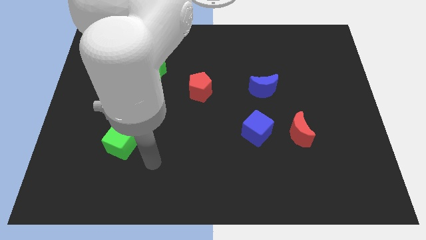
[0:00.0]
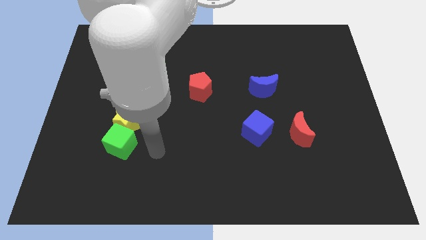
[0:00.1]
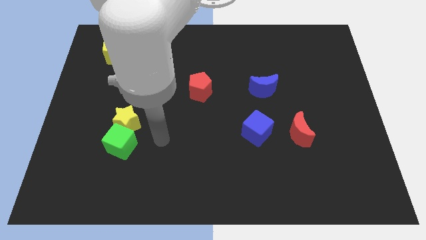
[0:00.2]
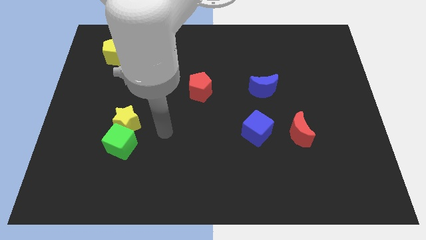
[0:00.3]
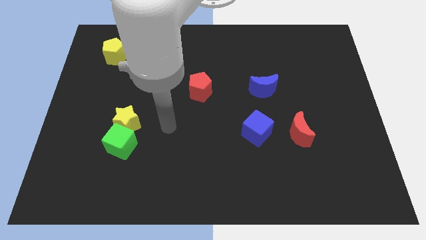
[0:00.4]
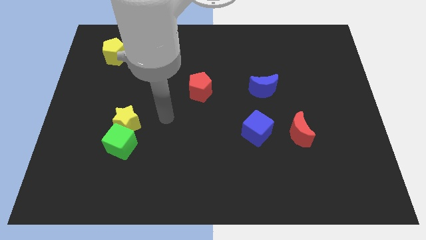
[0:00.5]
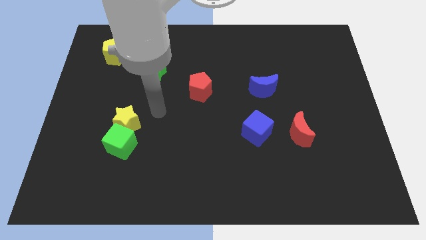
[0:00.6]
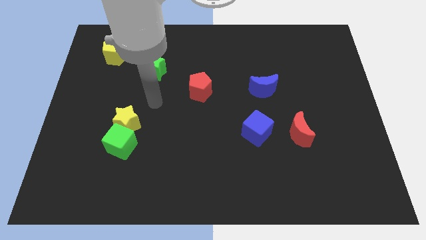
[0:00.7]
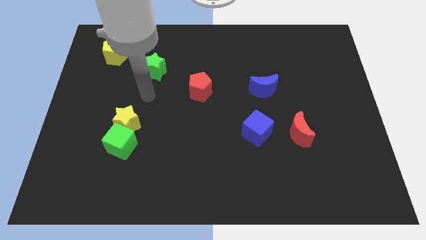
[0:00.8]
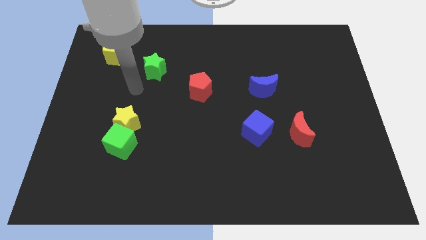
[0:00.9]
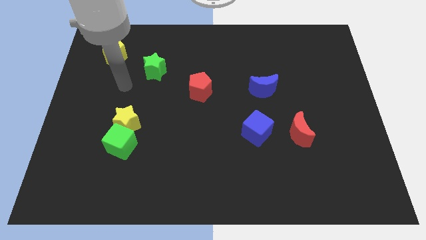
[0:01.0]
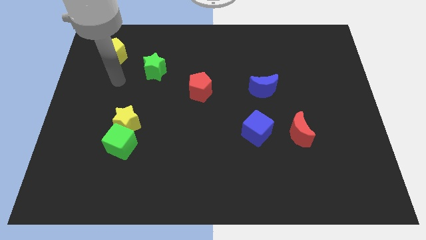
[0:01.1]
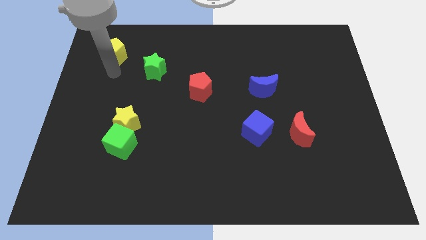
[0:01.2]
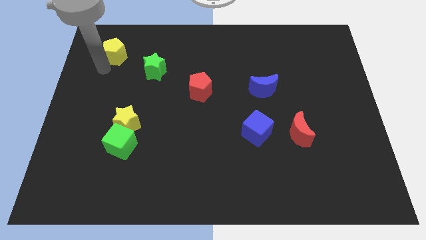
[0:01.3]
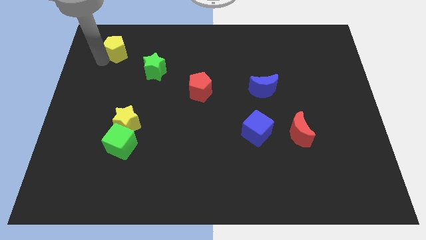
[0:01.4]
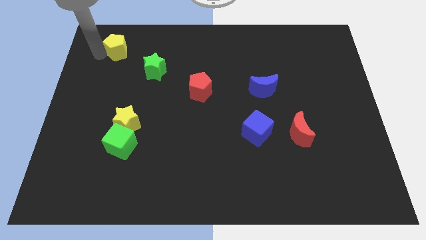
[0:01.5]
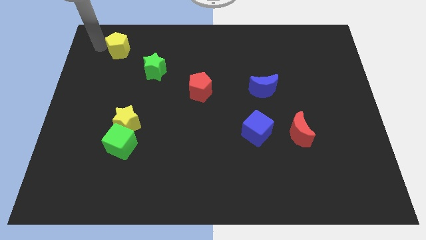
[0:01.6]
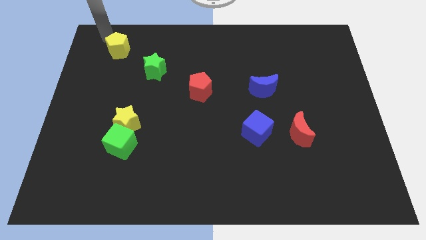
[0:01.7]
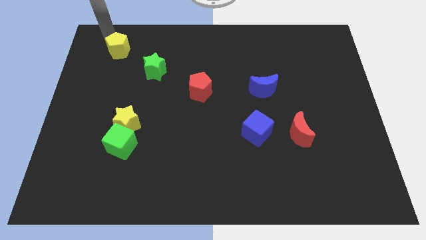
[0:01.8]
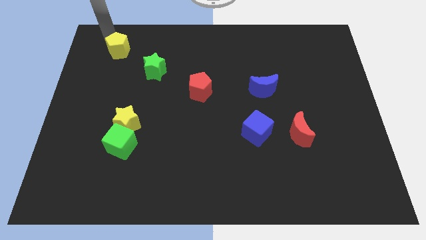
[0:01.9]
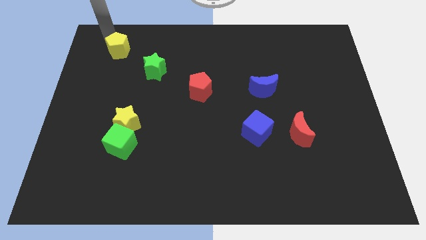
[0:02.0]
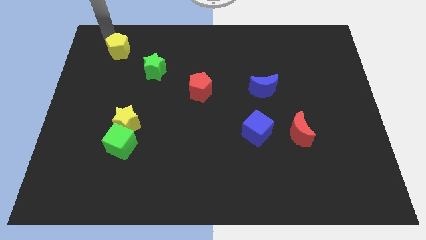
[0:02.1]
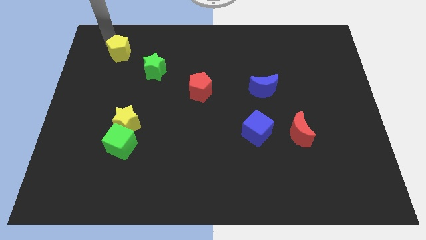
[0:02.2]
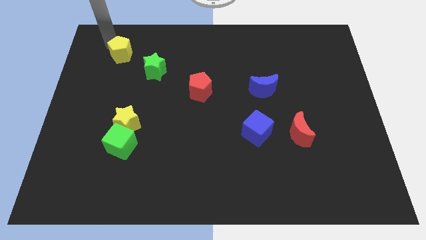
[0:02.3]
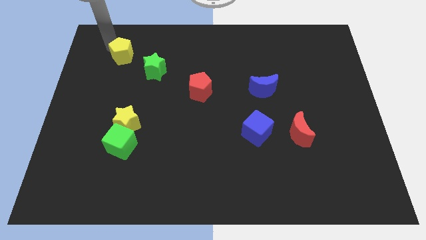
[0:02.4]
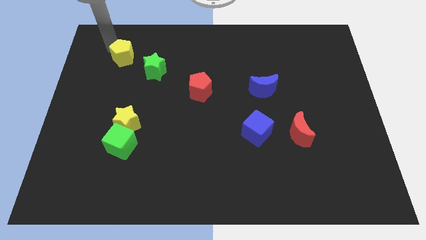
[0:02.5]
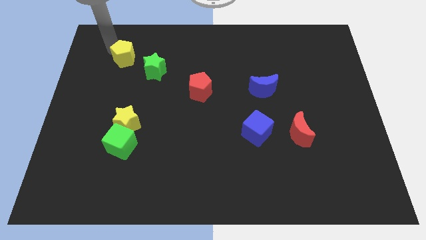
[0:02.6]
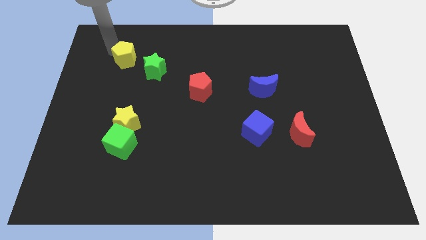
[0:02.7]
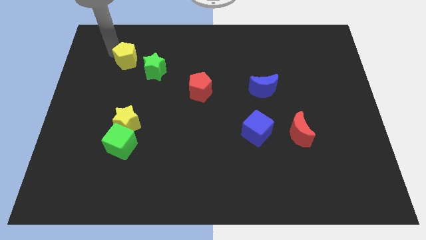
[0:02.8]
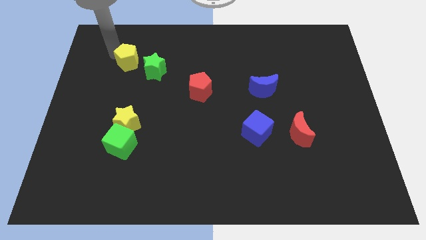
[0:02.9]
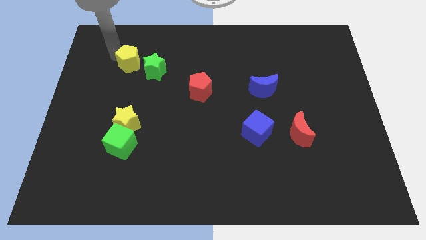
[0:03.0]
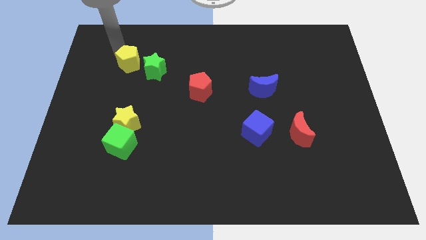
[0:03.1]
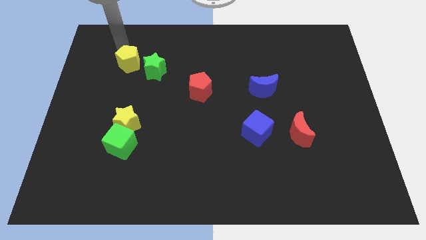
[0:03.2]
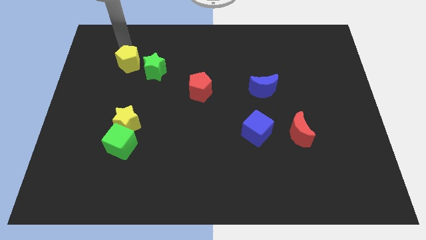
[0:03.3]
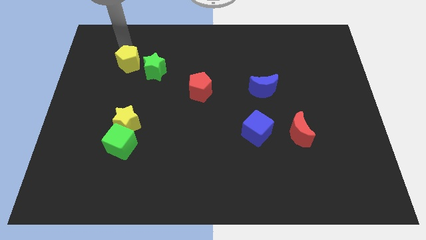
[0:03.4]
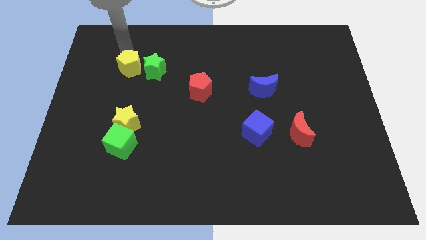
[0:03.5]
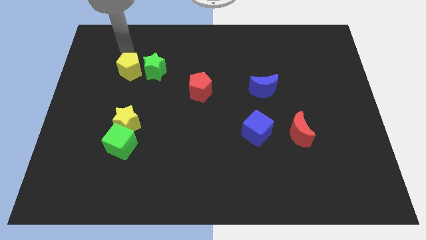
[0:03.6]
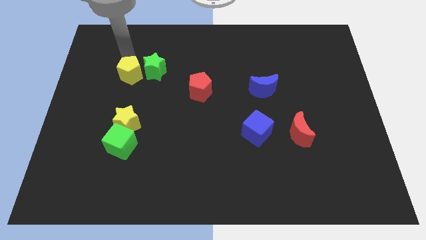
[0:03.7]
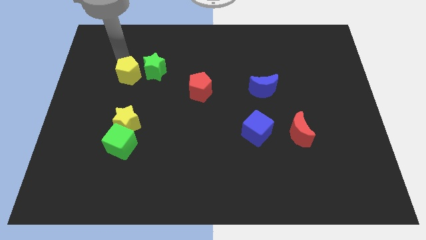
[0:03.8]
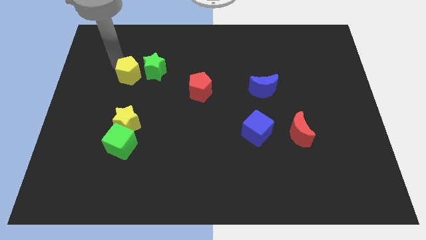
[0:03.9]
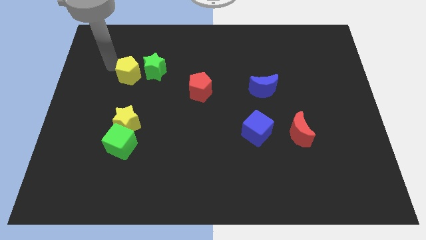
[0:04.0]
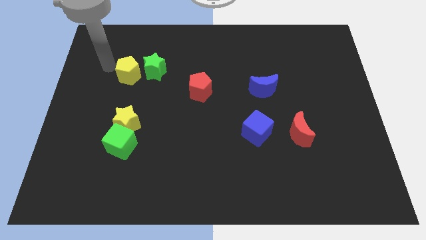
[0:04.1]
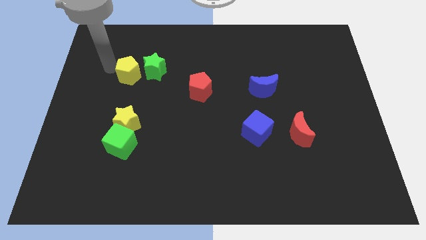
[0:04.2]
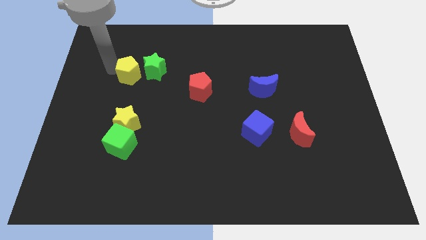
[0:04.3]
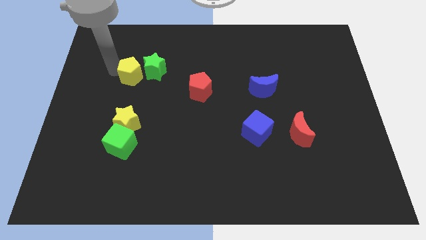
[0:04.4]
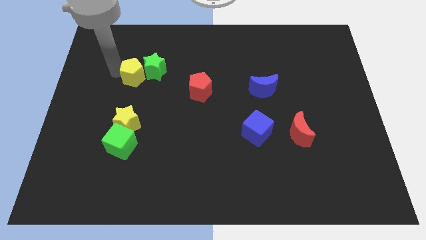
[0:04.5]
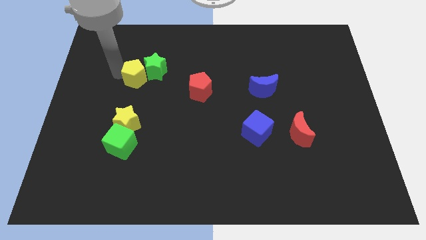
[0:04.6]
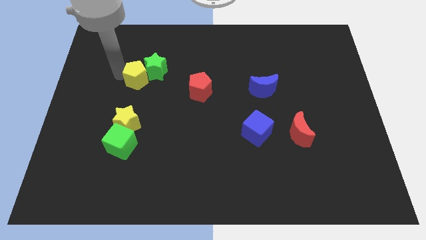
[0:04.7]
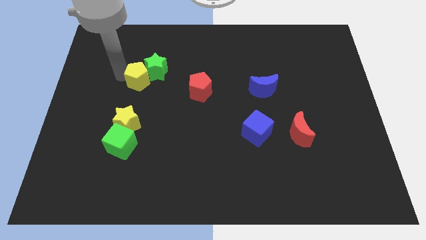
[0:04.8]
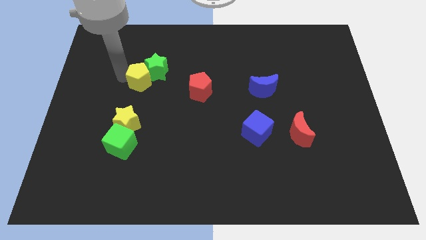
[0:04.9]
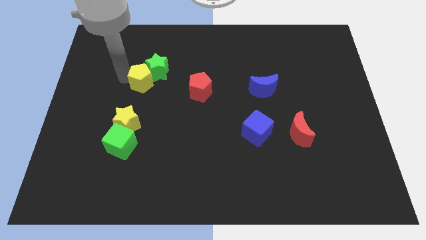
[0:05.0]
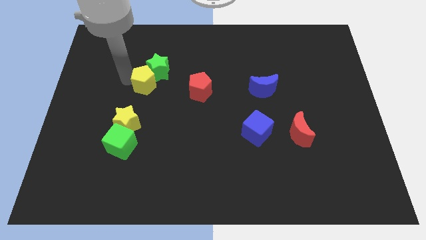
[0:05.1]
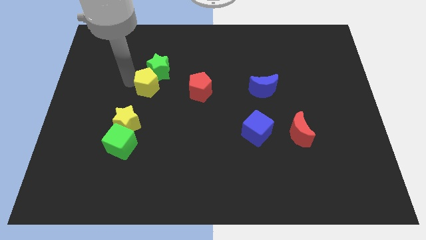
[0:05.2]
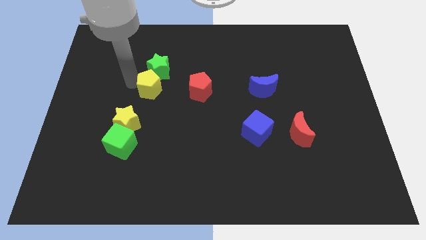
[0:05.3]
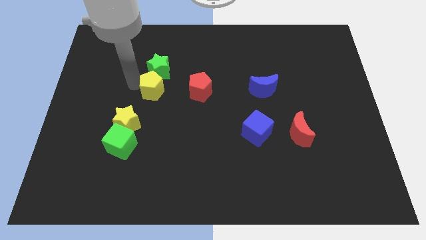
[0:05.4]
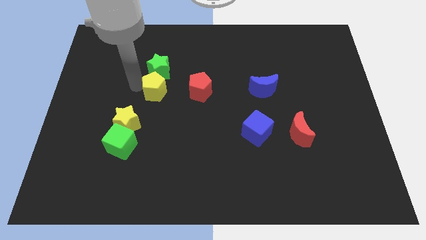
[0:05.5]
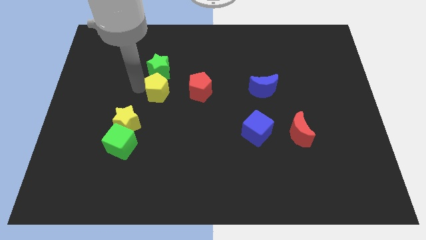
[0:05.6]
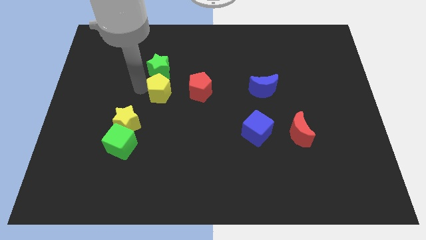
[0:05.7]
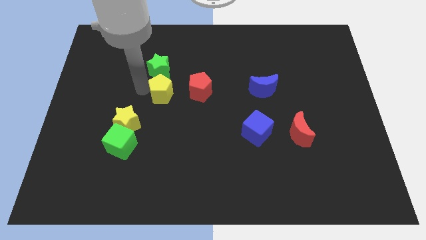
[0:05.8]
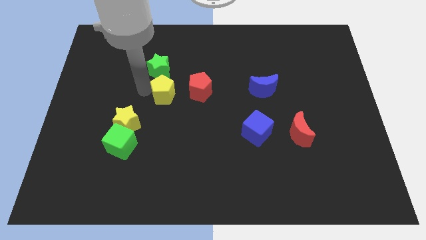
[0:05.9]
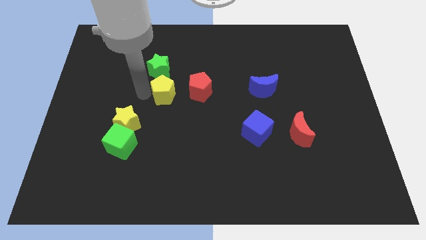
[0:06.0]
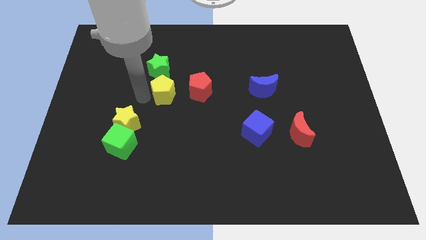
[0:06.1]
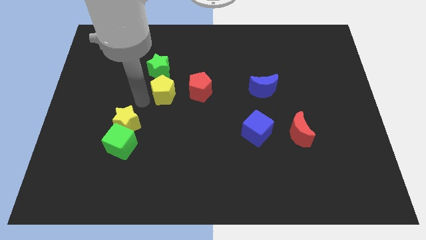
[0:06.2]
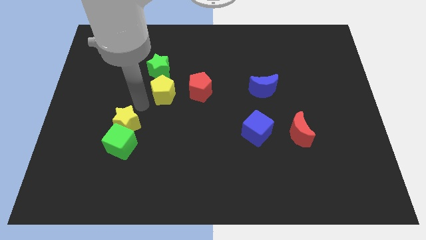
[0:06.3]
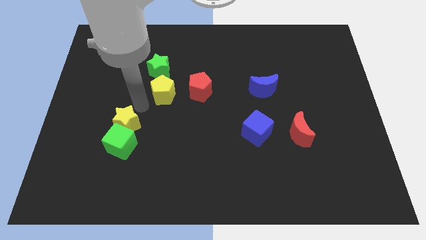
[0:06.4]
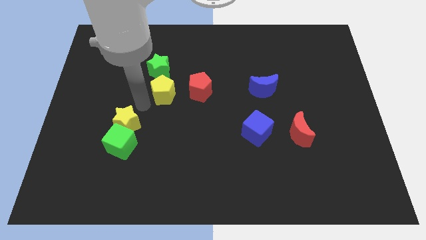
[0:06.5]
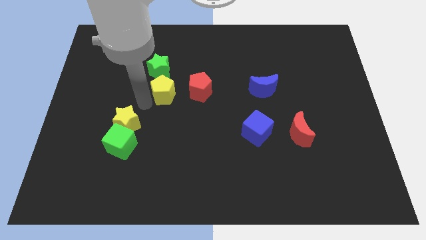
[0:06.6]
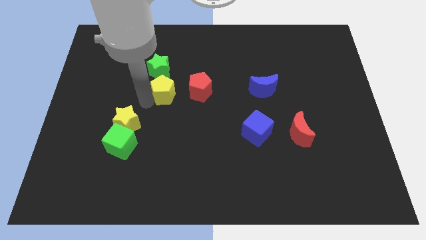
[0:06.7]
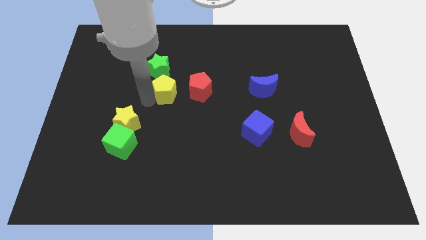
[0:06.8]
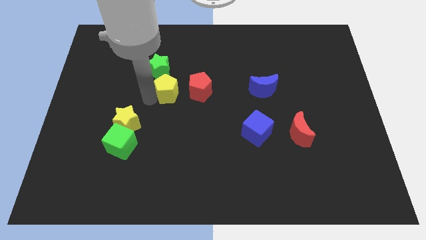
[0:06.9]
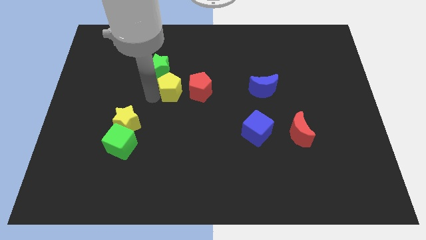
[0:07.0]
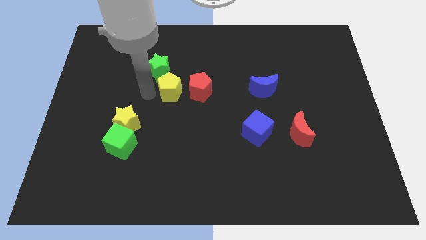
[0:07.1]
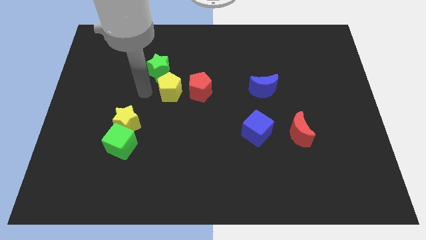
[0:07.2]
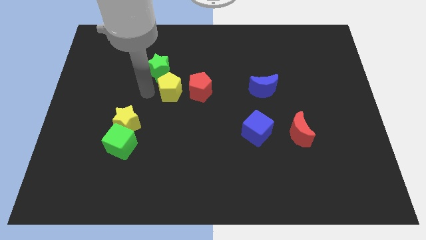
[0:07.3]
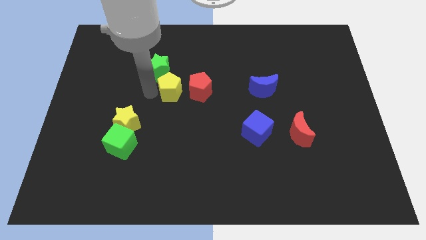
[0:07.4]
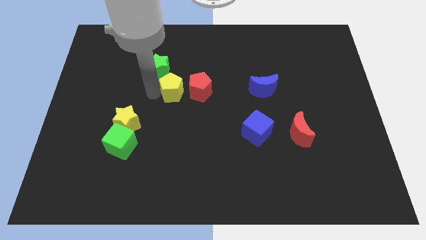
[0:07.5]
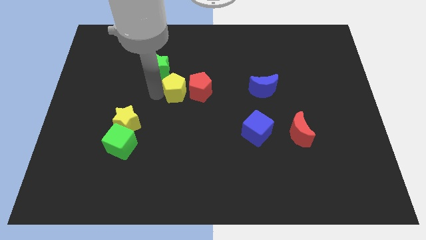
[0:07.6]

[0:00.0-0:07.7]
move the yellow pentagon close to the red pentagon
